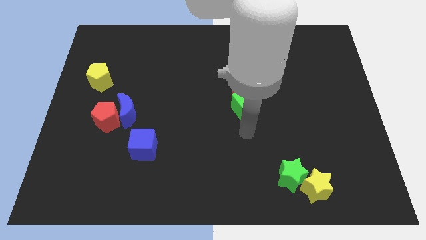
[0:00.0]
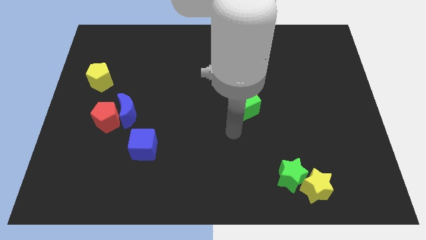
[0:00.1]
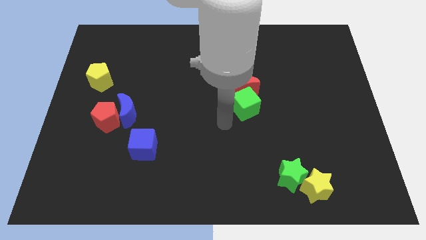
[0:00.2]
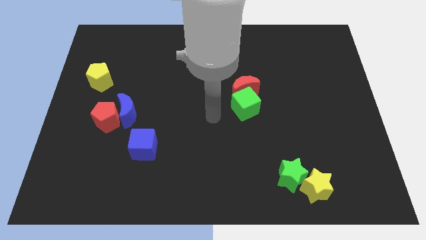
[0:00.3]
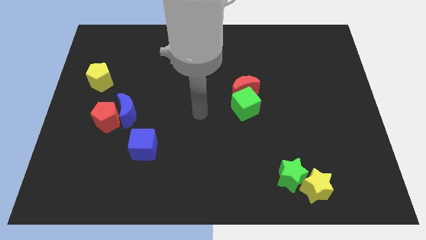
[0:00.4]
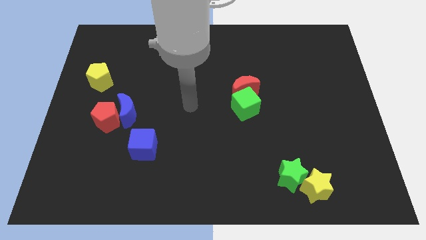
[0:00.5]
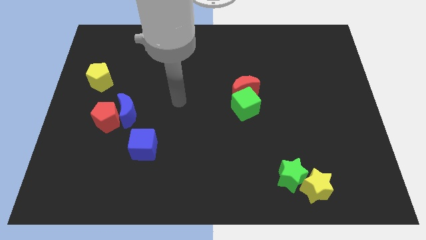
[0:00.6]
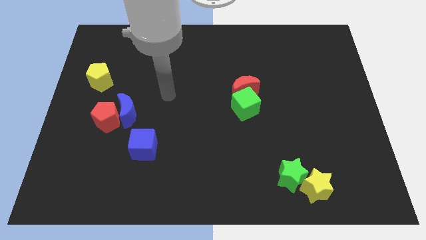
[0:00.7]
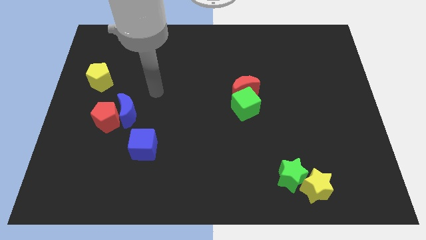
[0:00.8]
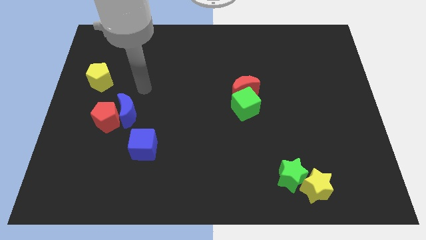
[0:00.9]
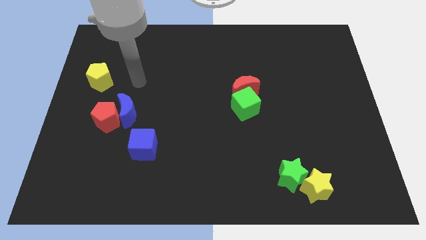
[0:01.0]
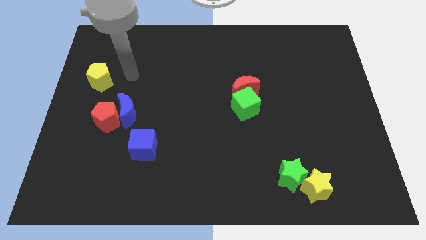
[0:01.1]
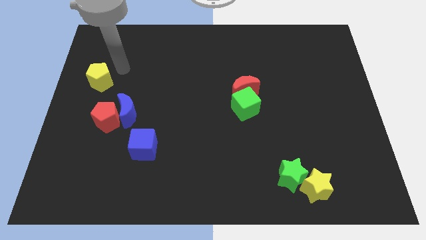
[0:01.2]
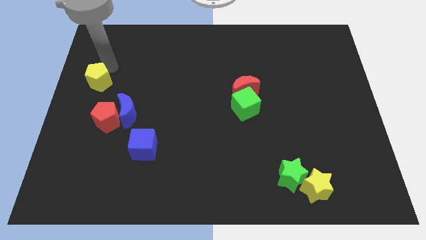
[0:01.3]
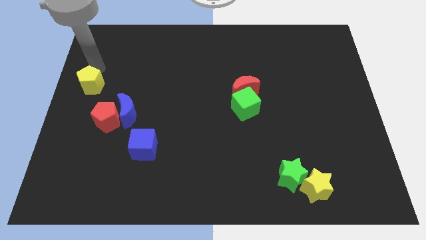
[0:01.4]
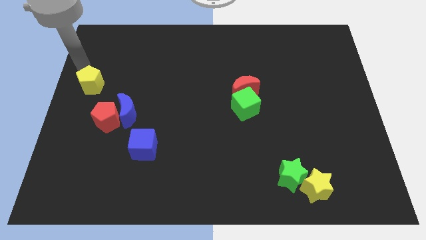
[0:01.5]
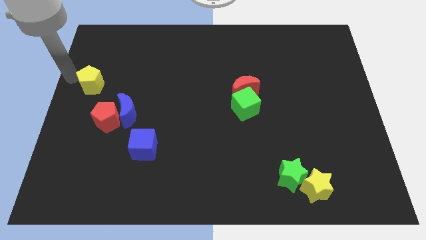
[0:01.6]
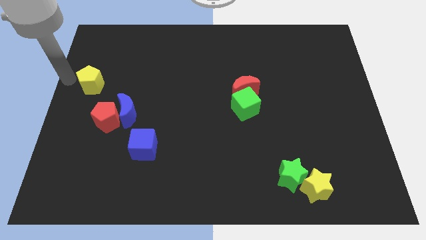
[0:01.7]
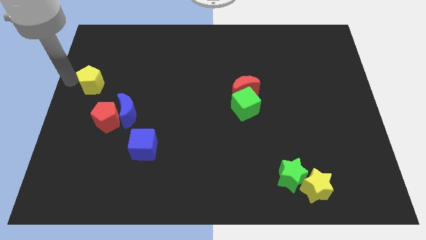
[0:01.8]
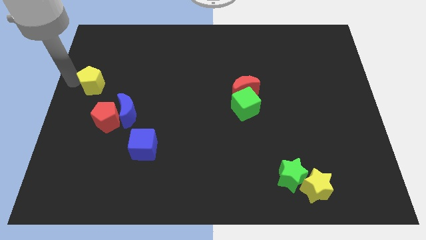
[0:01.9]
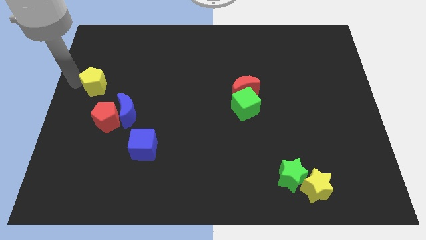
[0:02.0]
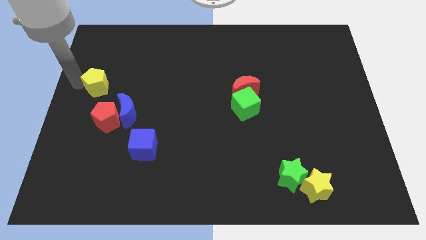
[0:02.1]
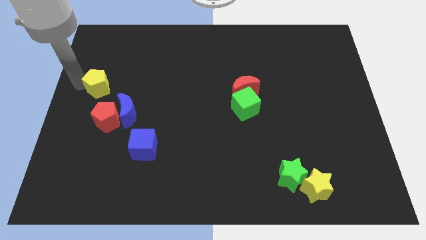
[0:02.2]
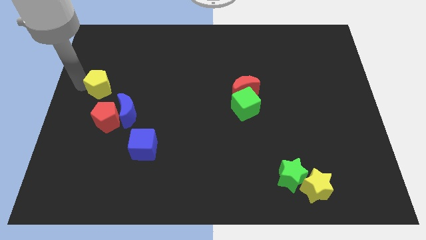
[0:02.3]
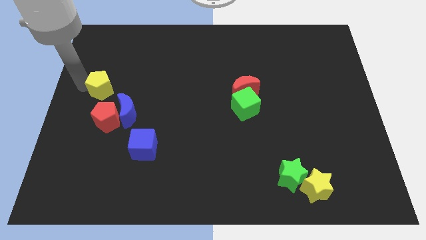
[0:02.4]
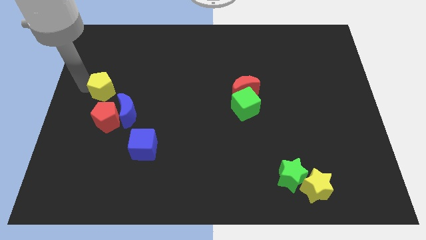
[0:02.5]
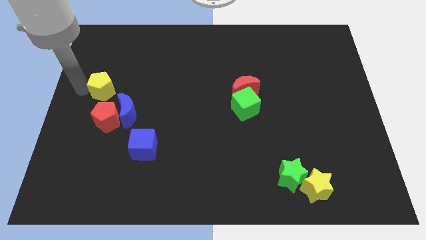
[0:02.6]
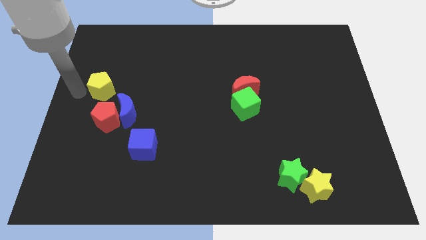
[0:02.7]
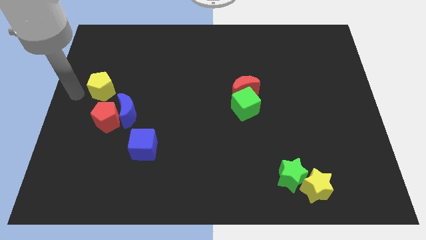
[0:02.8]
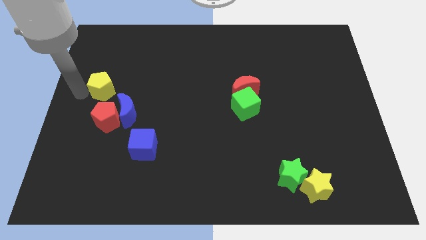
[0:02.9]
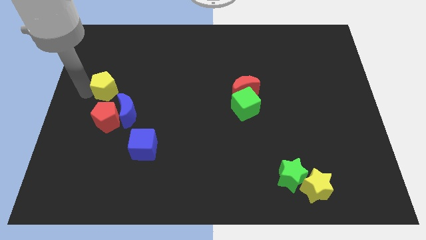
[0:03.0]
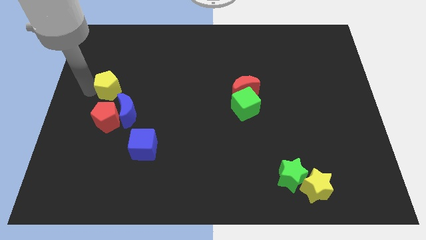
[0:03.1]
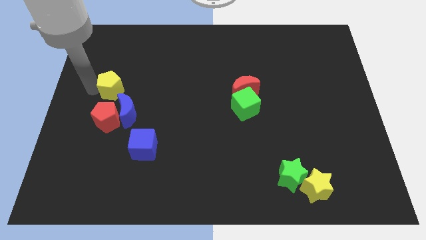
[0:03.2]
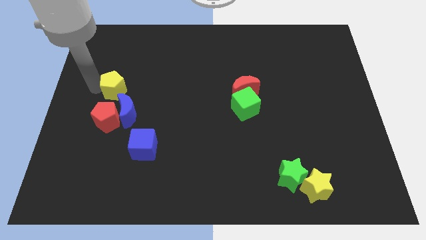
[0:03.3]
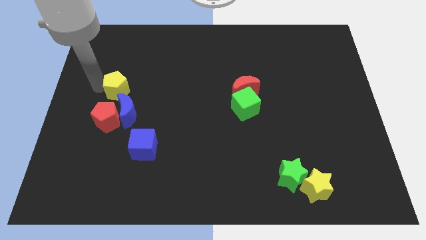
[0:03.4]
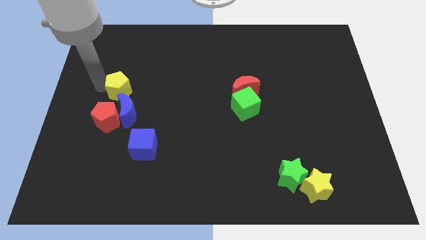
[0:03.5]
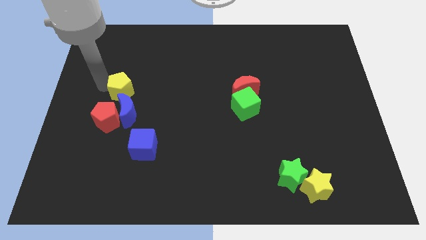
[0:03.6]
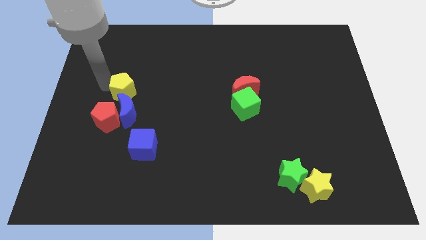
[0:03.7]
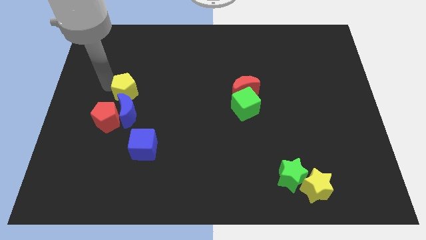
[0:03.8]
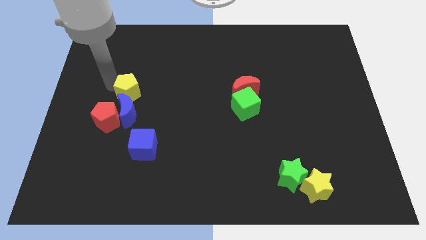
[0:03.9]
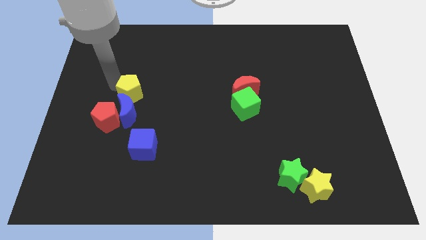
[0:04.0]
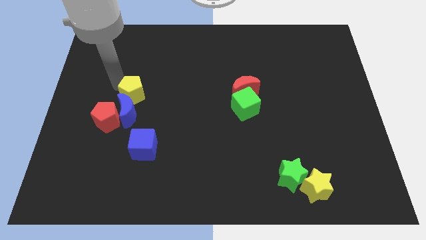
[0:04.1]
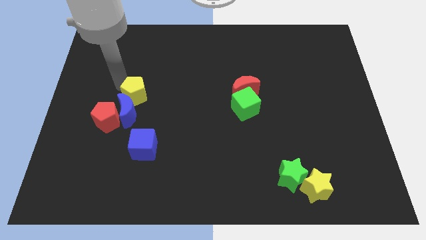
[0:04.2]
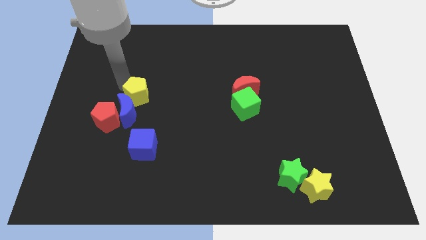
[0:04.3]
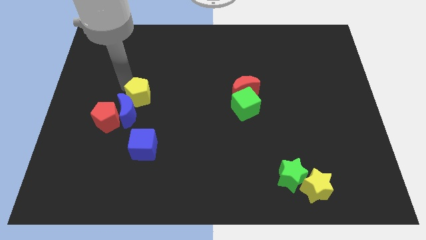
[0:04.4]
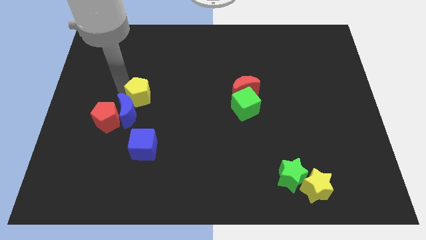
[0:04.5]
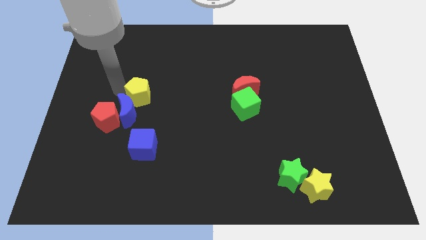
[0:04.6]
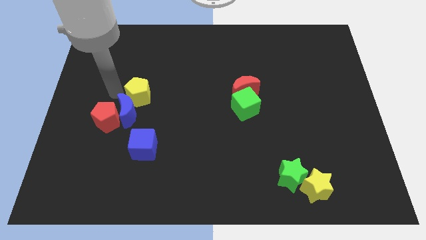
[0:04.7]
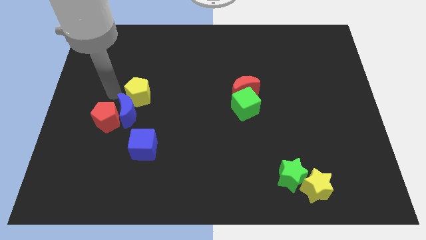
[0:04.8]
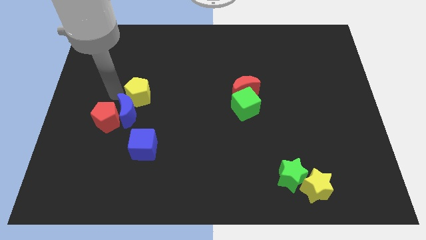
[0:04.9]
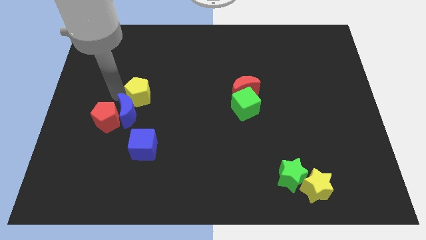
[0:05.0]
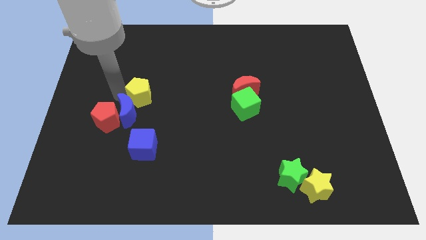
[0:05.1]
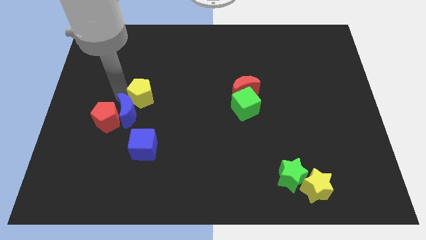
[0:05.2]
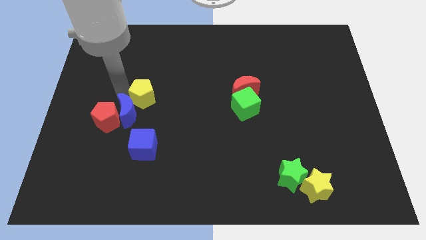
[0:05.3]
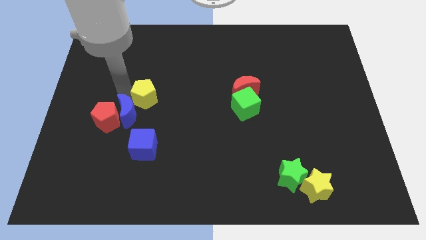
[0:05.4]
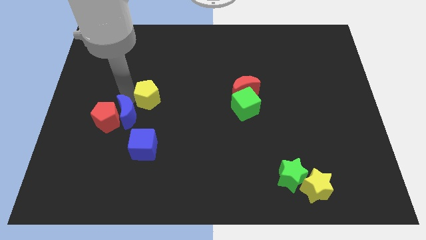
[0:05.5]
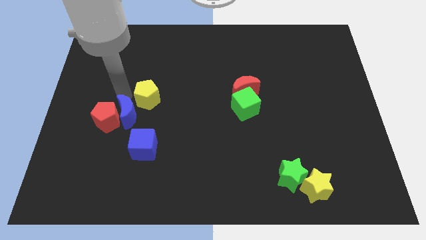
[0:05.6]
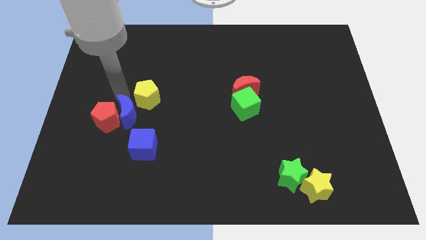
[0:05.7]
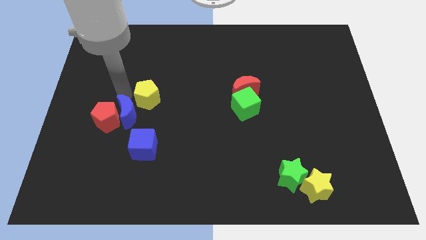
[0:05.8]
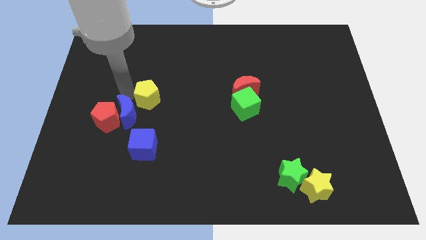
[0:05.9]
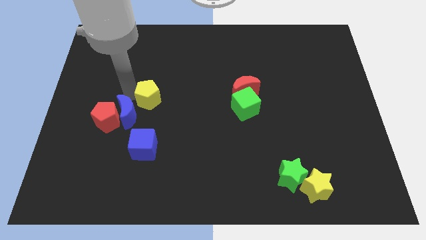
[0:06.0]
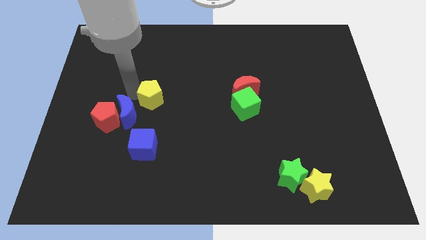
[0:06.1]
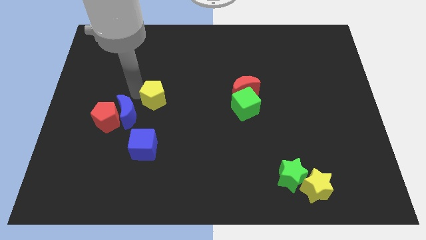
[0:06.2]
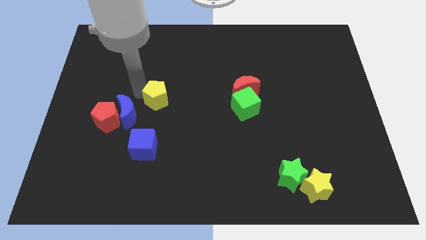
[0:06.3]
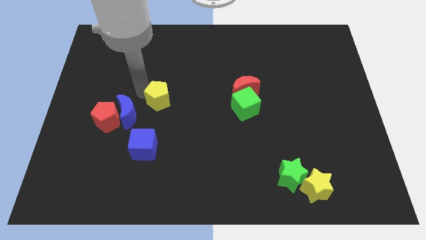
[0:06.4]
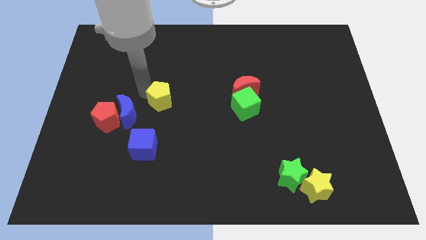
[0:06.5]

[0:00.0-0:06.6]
move the yellow pentagon to the center of the board

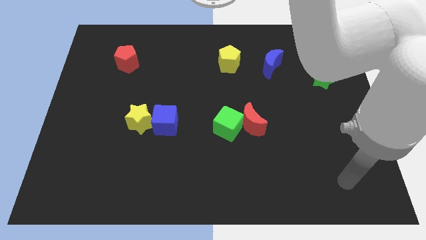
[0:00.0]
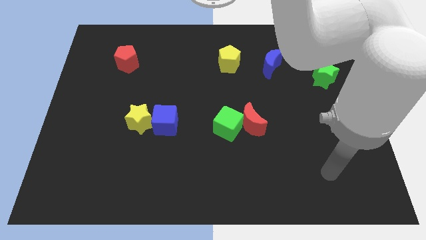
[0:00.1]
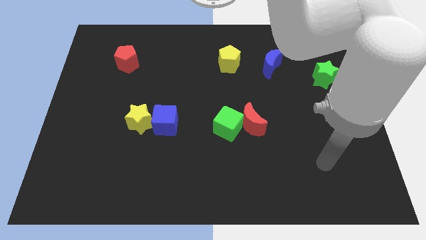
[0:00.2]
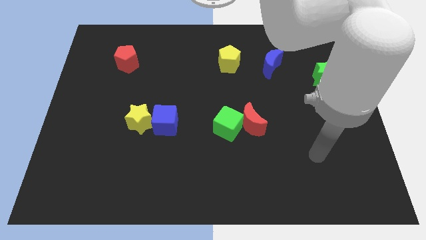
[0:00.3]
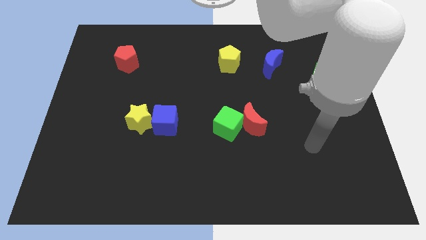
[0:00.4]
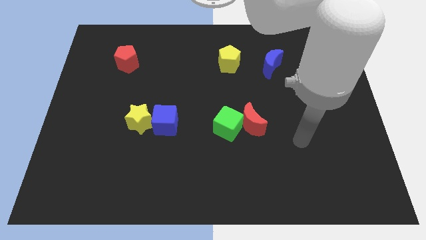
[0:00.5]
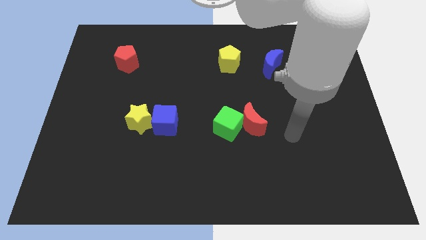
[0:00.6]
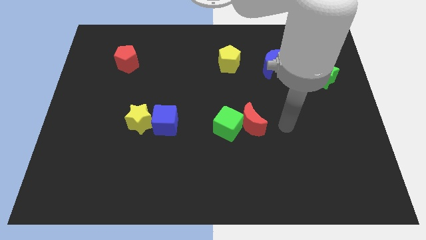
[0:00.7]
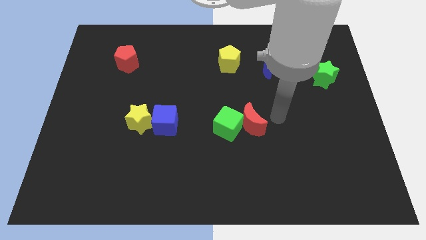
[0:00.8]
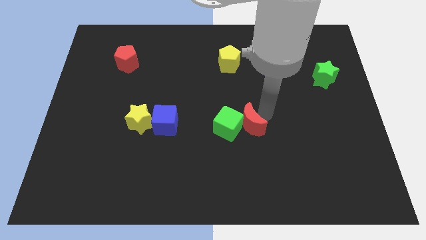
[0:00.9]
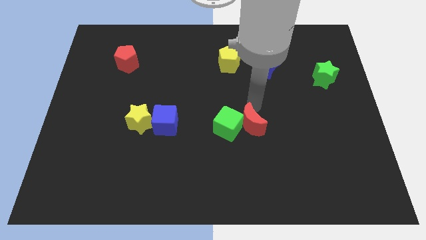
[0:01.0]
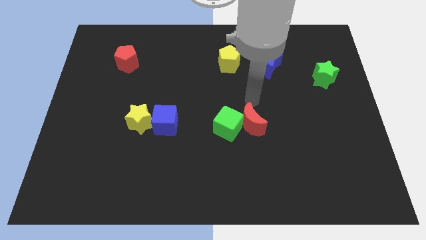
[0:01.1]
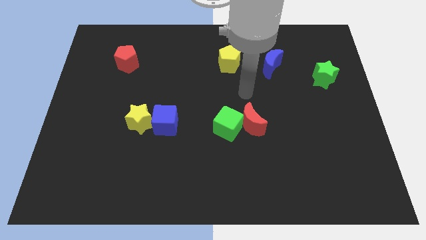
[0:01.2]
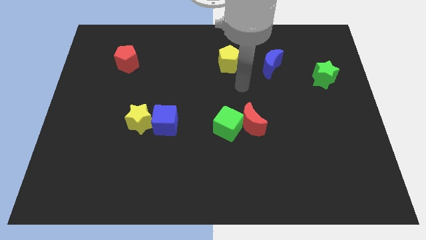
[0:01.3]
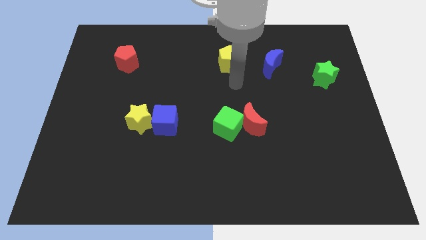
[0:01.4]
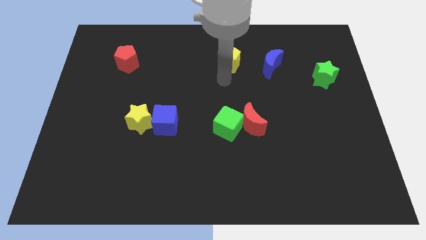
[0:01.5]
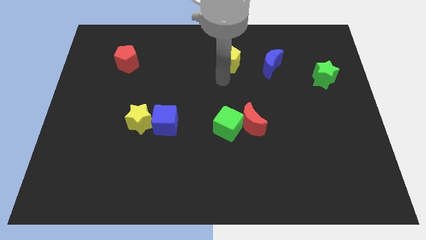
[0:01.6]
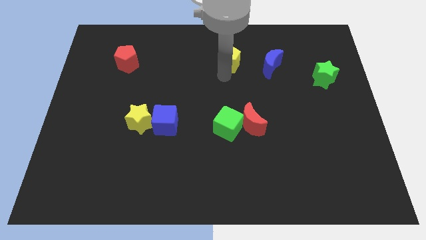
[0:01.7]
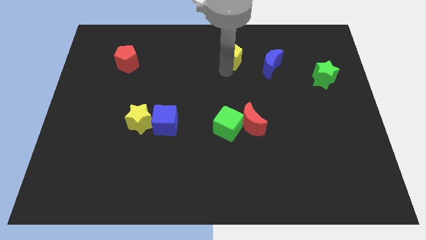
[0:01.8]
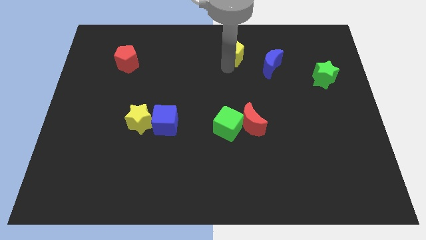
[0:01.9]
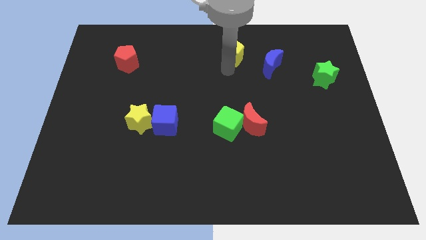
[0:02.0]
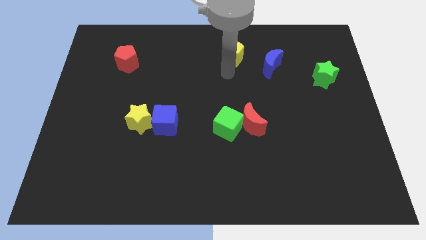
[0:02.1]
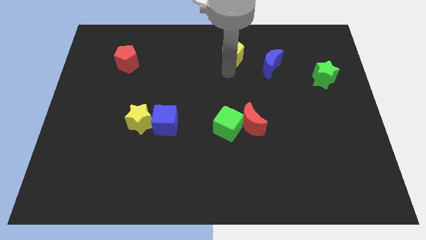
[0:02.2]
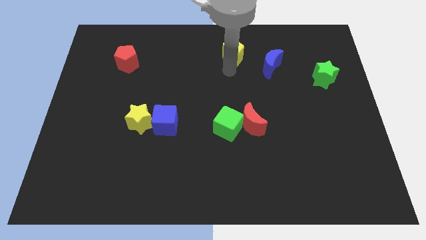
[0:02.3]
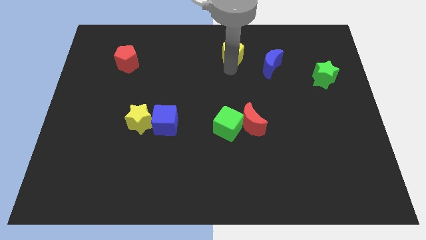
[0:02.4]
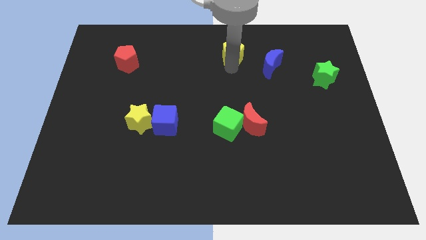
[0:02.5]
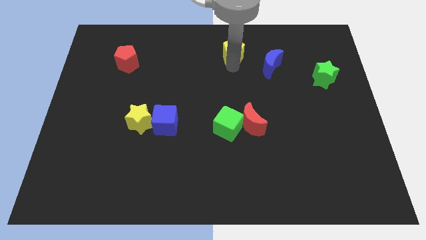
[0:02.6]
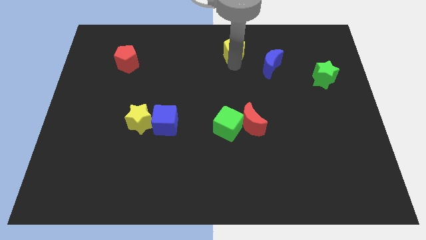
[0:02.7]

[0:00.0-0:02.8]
move the yellow pentagon to the top
